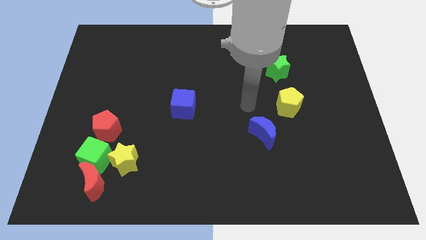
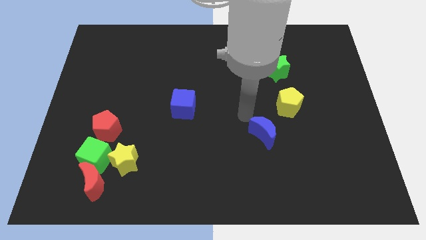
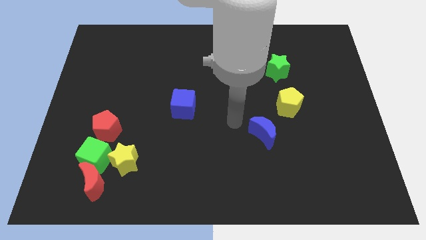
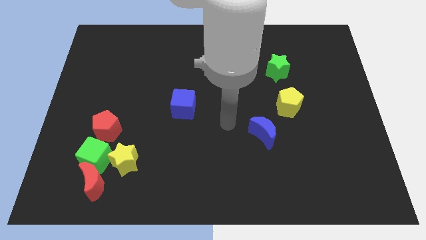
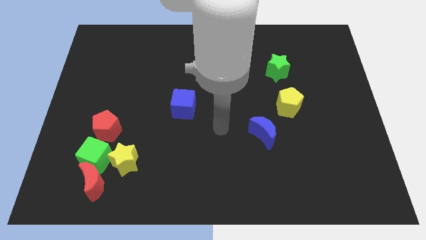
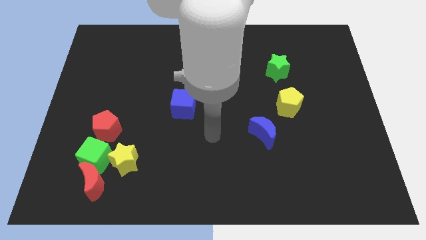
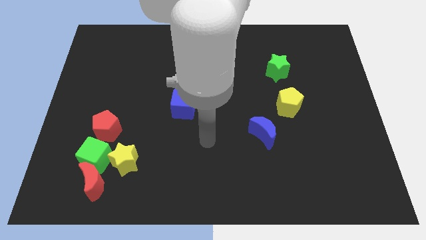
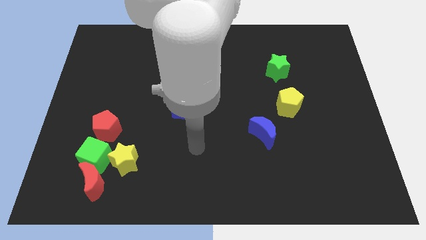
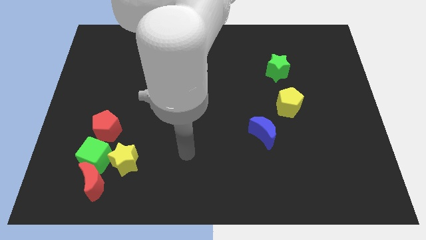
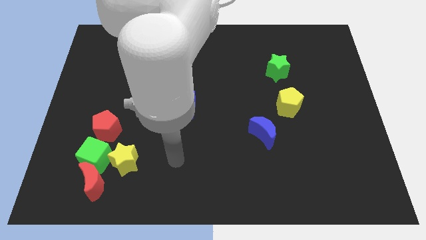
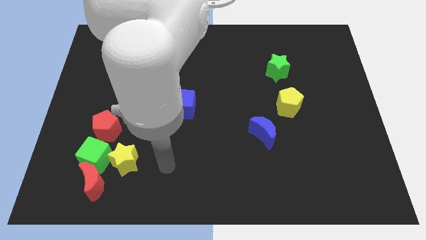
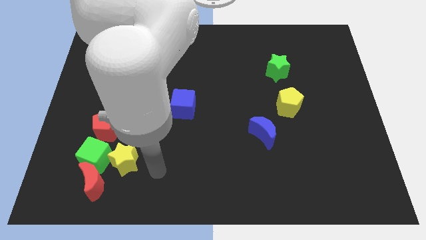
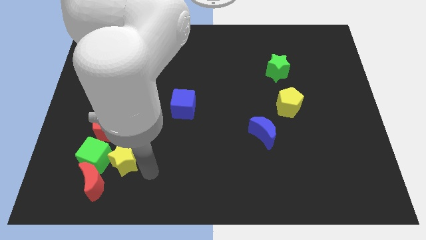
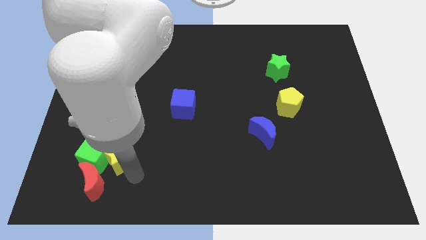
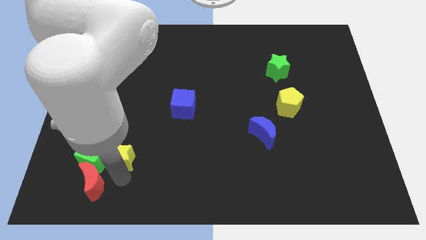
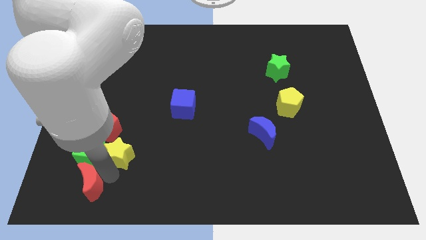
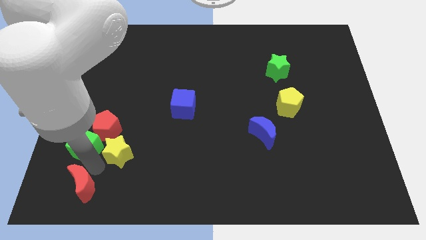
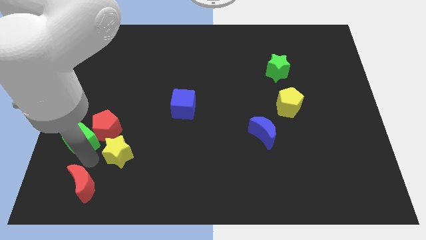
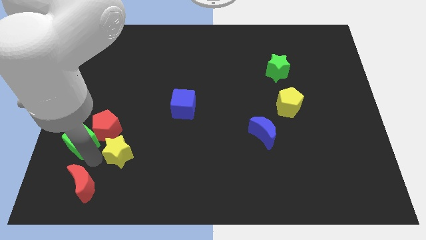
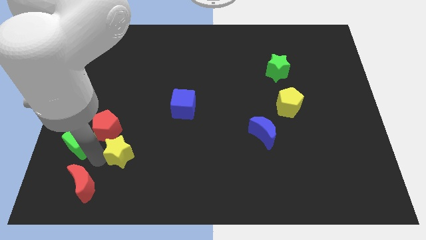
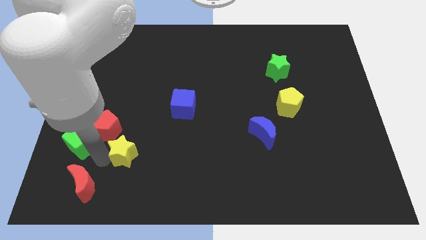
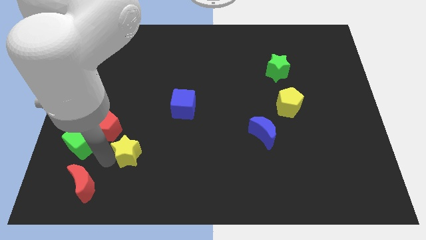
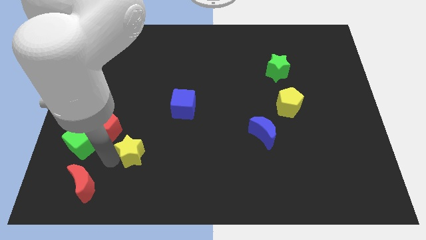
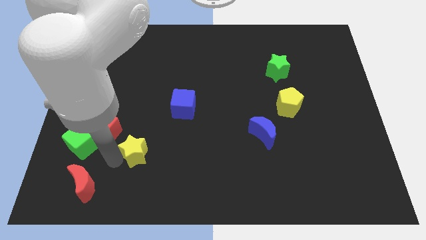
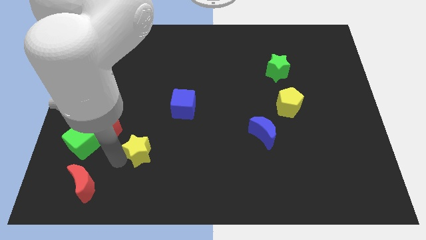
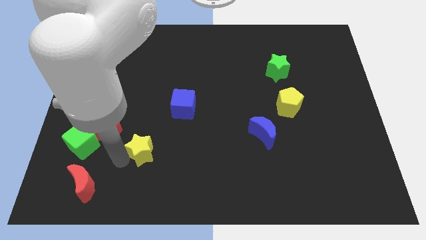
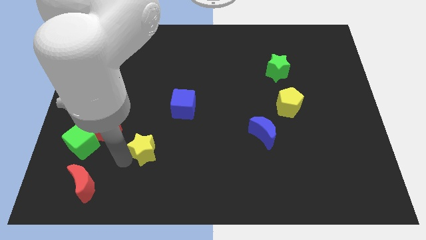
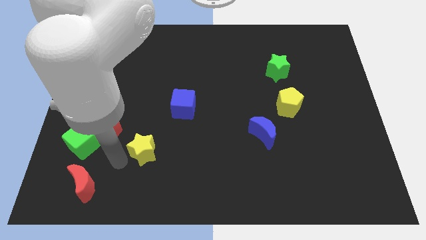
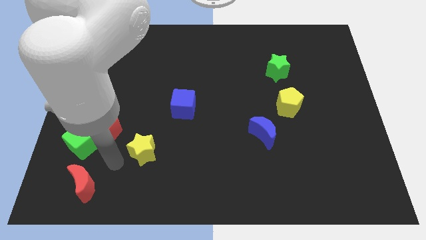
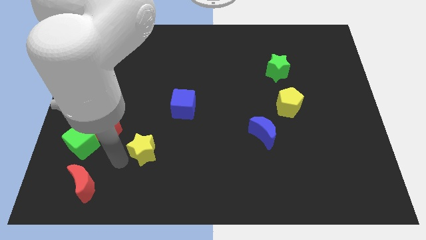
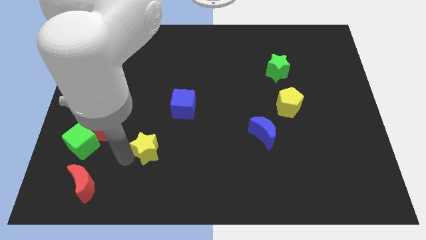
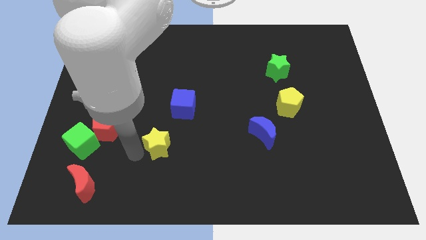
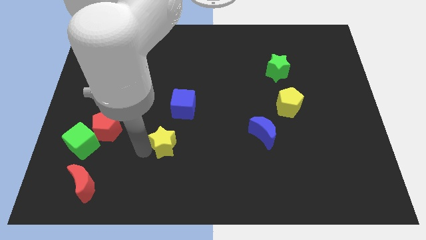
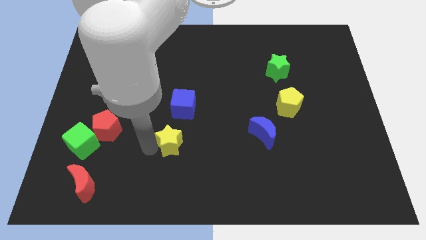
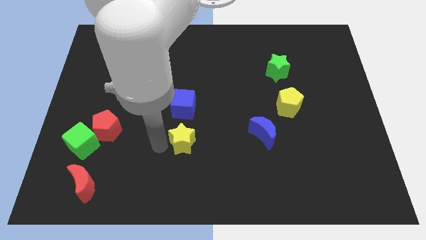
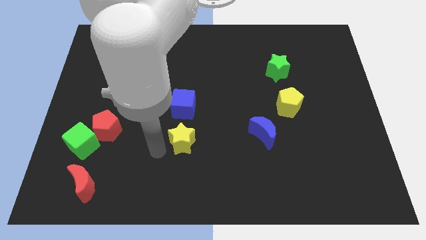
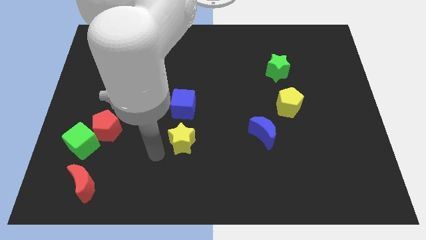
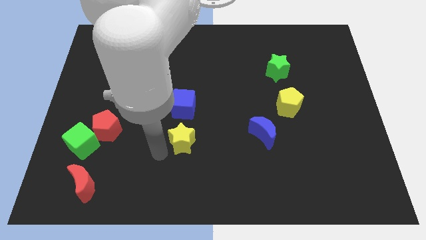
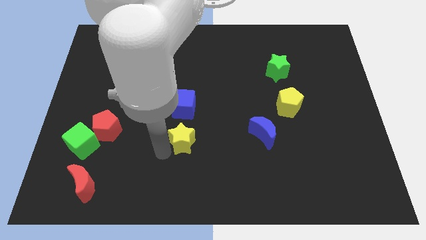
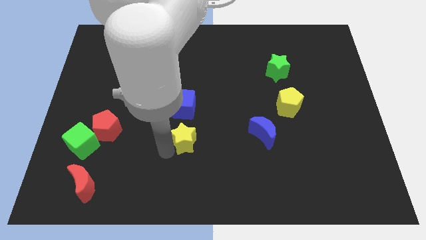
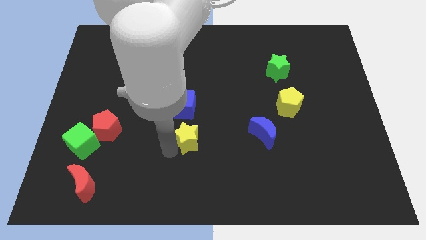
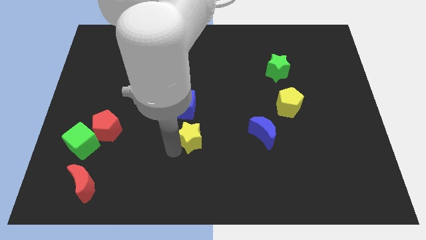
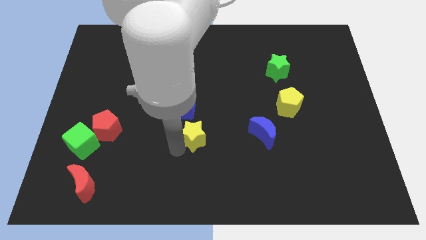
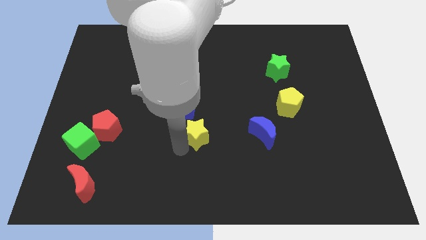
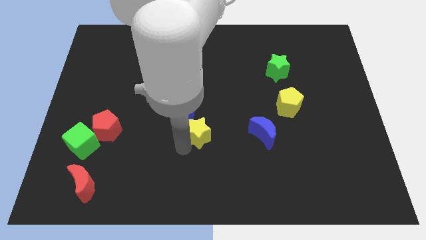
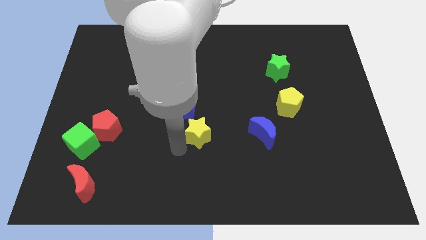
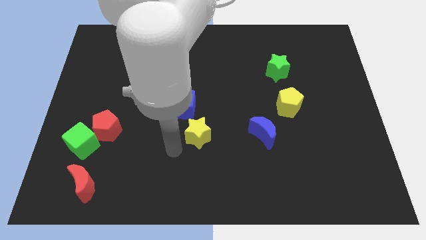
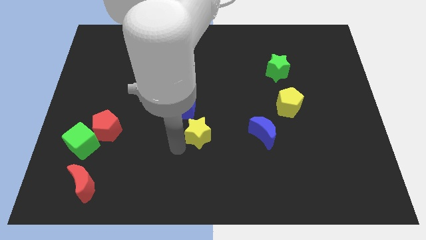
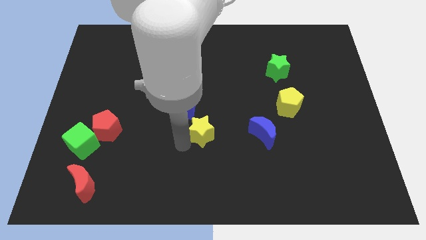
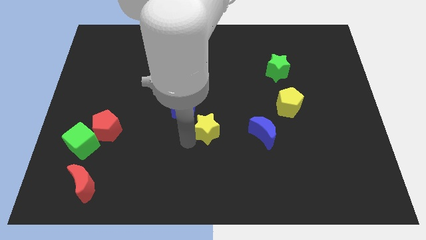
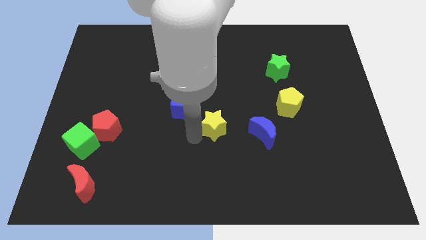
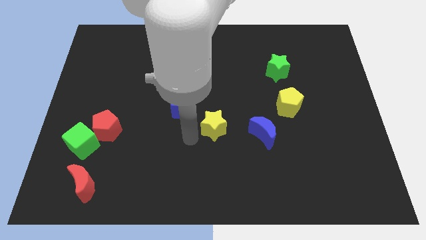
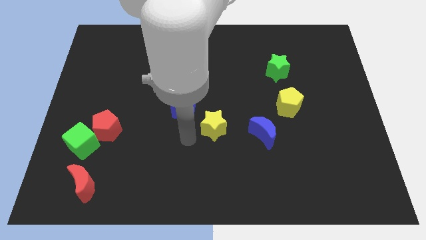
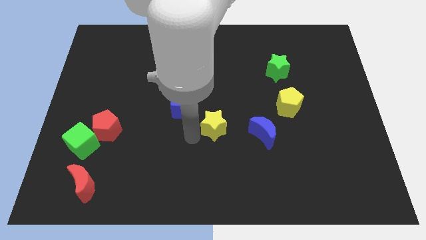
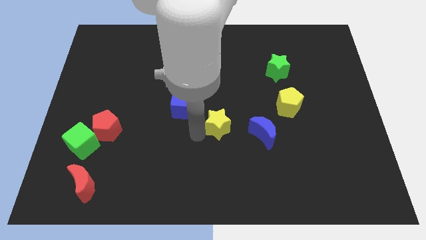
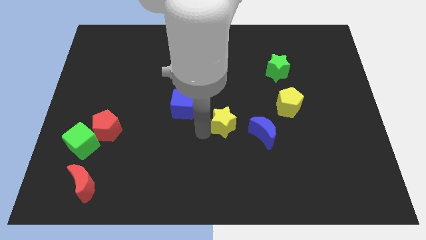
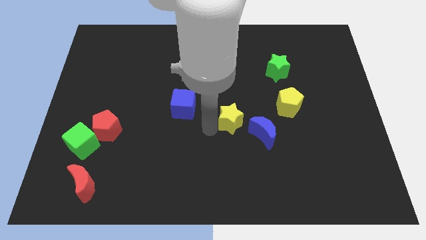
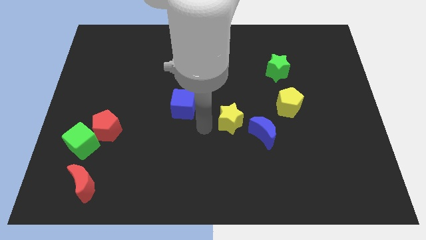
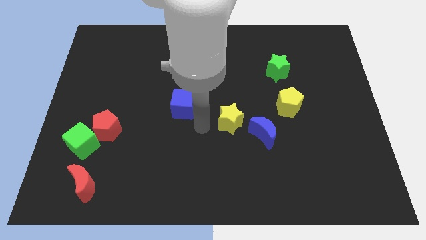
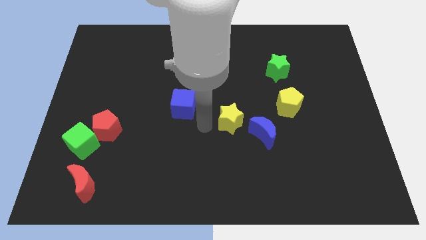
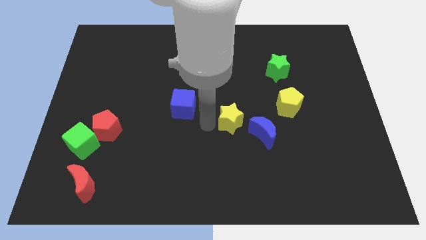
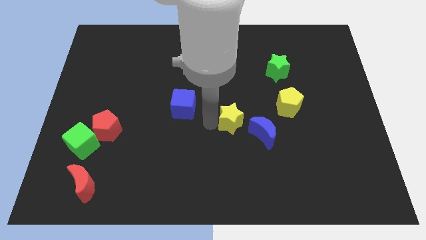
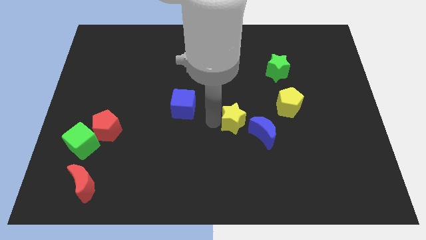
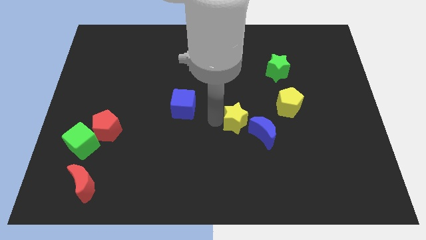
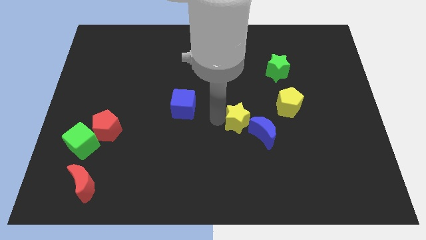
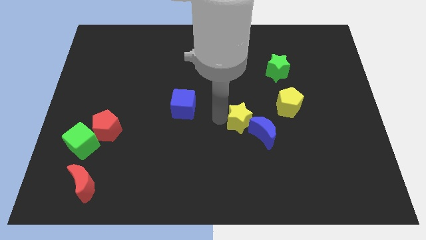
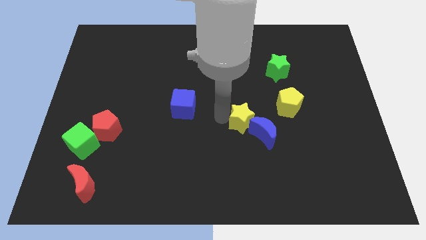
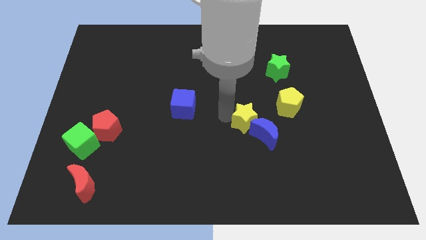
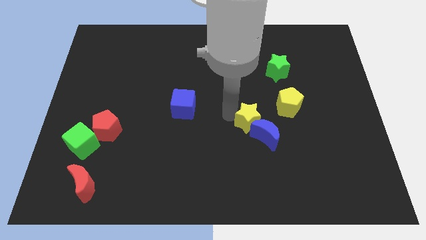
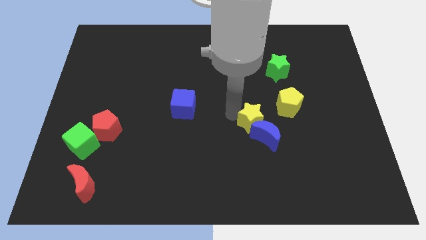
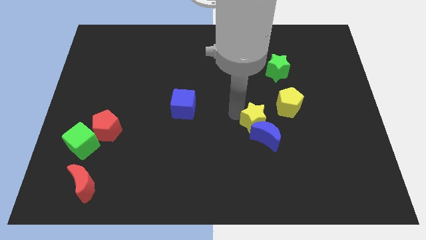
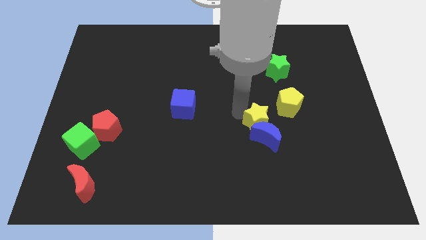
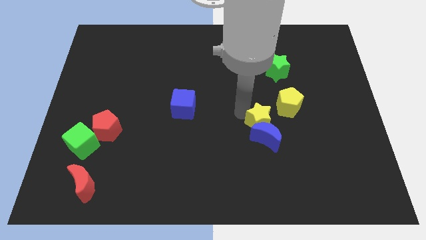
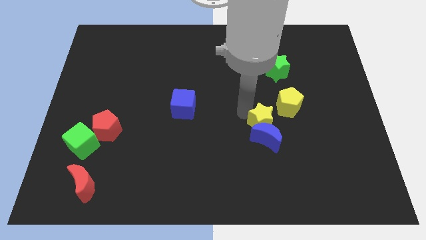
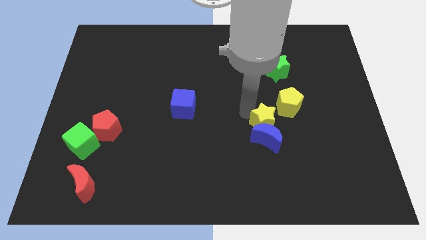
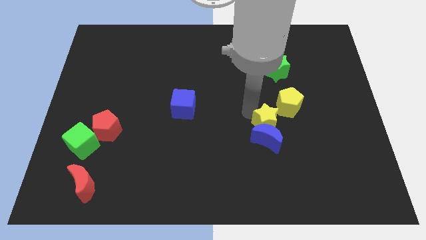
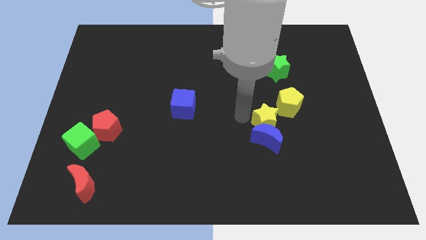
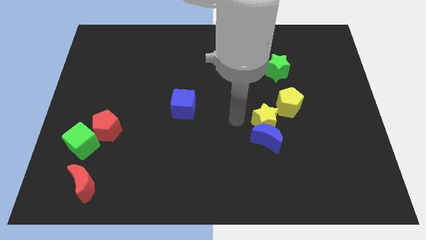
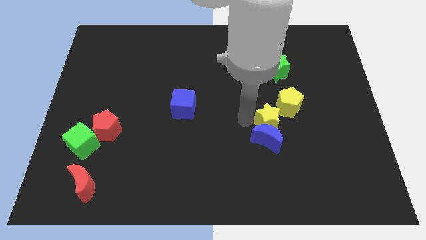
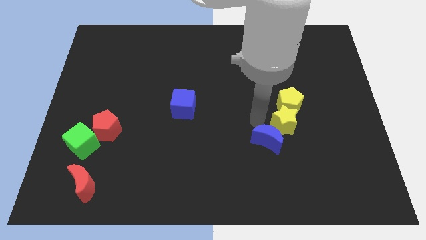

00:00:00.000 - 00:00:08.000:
push the yellow star diagonally down and to the right of the yellow pentagon
